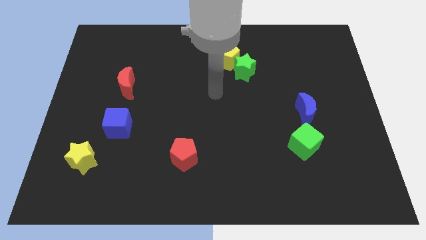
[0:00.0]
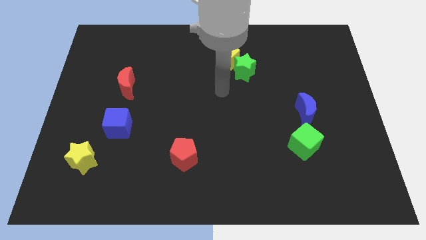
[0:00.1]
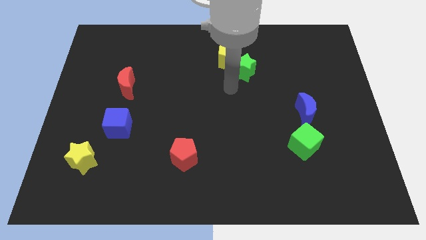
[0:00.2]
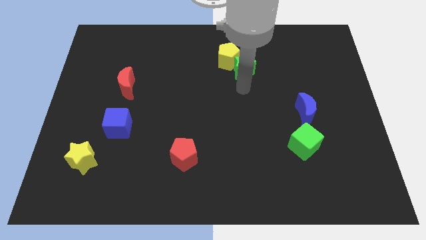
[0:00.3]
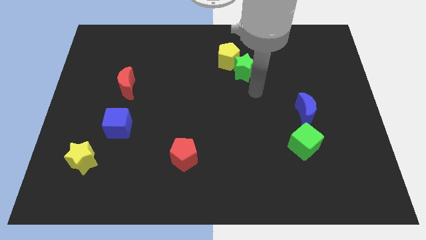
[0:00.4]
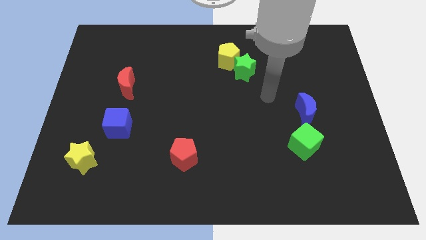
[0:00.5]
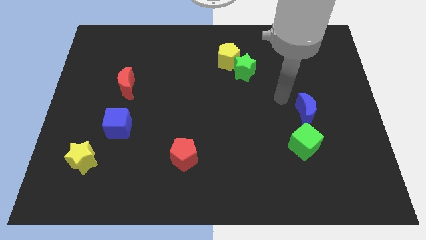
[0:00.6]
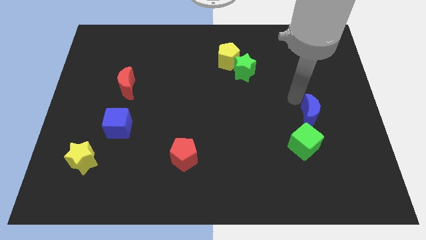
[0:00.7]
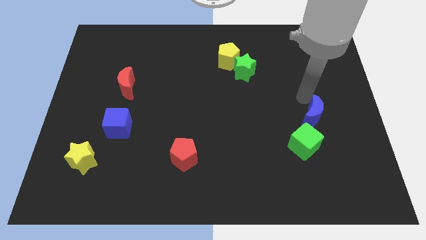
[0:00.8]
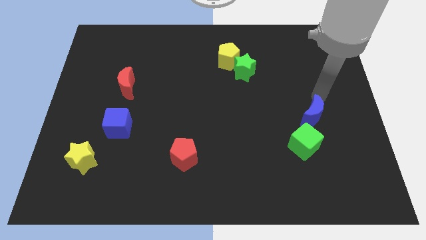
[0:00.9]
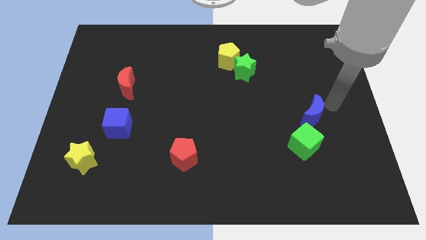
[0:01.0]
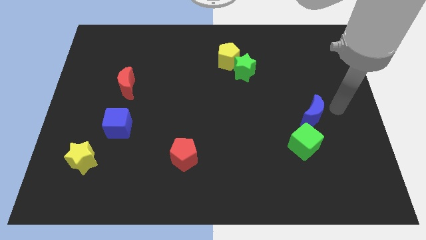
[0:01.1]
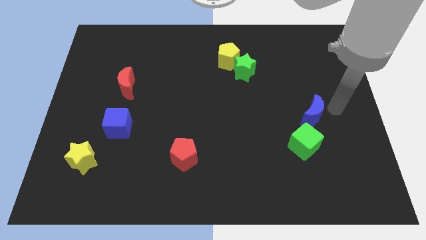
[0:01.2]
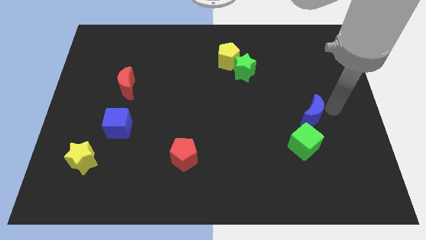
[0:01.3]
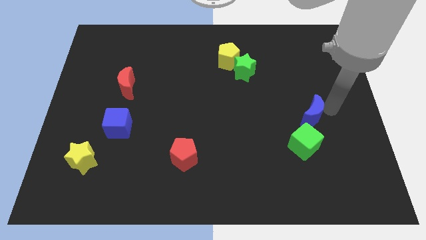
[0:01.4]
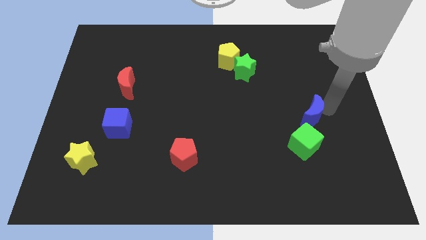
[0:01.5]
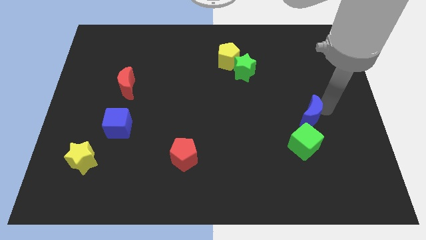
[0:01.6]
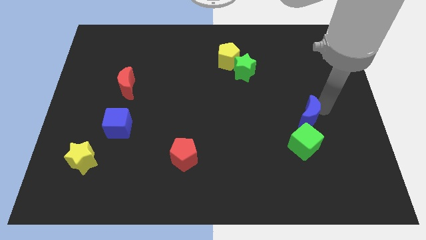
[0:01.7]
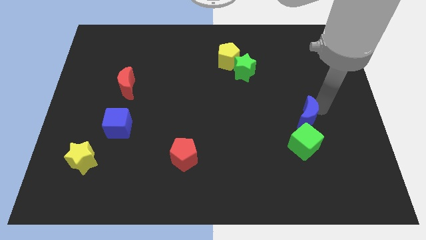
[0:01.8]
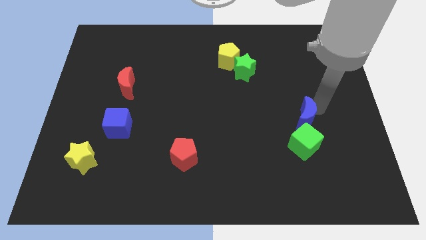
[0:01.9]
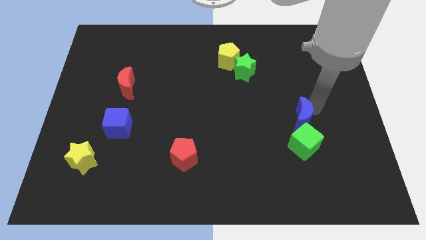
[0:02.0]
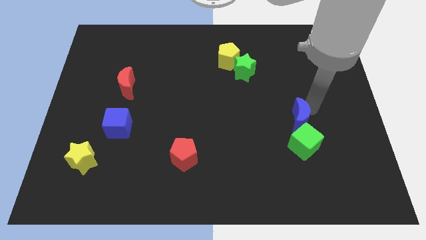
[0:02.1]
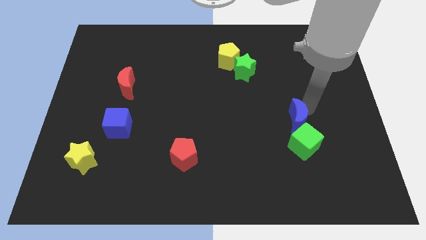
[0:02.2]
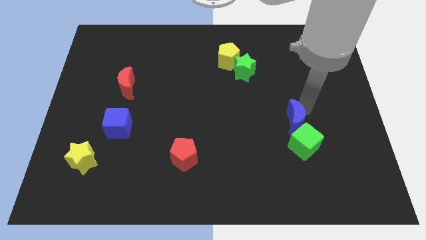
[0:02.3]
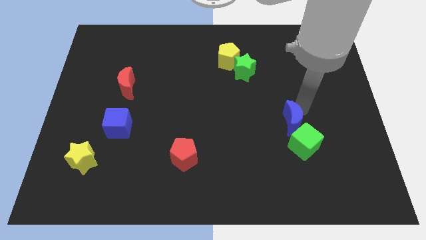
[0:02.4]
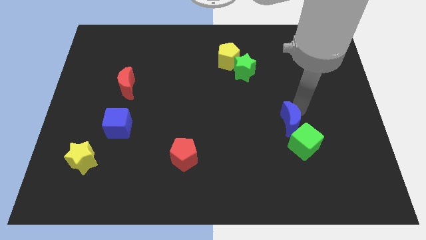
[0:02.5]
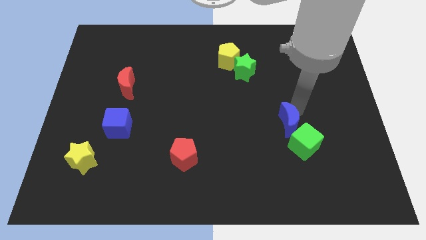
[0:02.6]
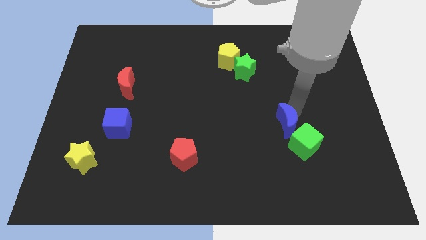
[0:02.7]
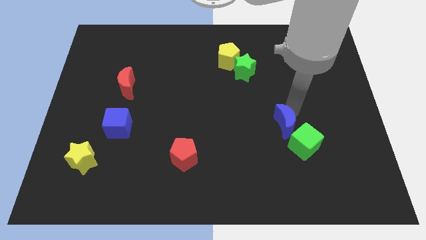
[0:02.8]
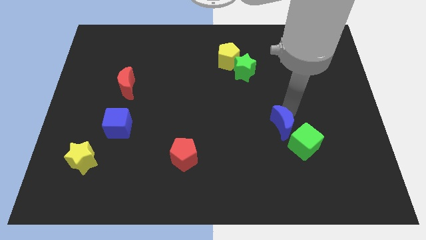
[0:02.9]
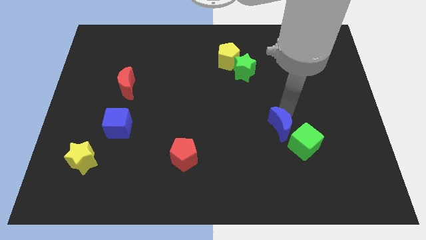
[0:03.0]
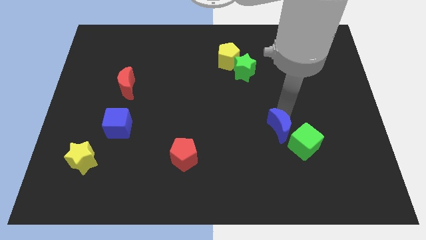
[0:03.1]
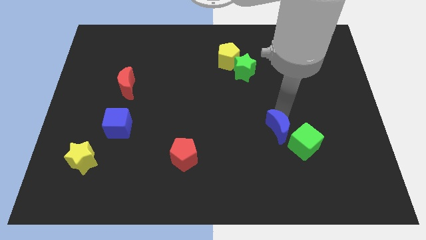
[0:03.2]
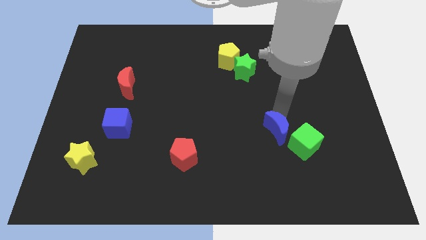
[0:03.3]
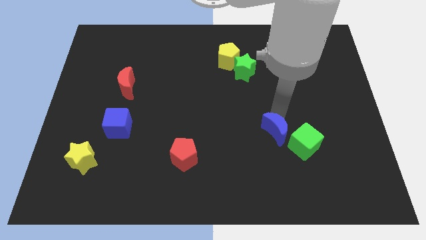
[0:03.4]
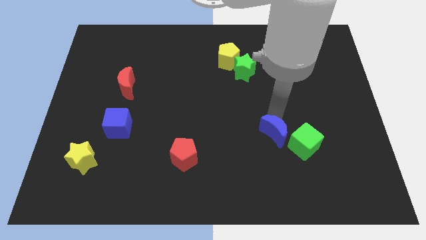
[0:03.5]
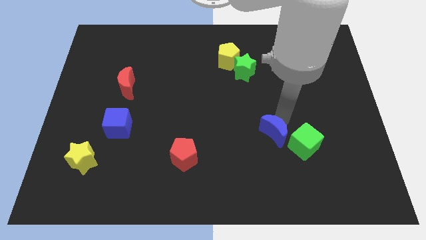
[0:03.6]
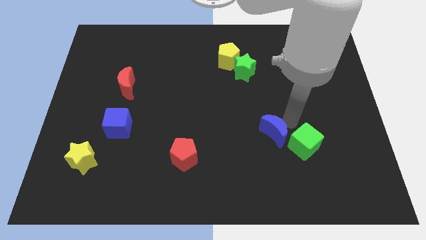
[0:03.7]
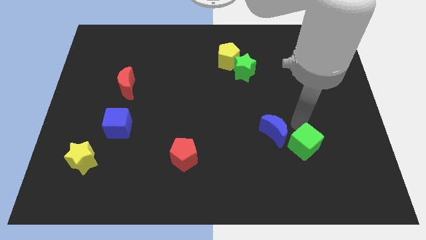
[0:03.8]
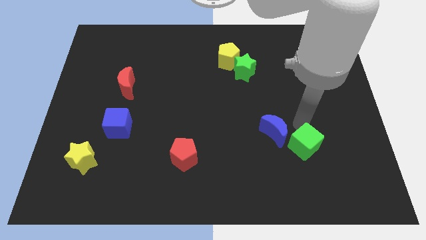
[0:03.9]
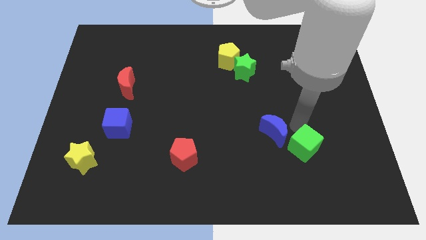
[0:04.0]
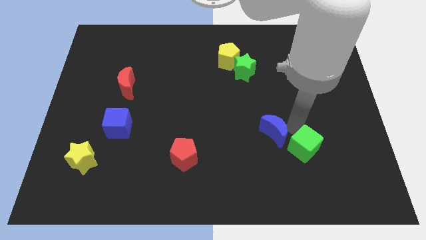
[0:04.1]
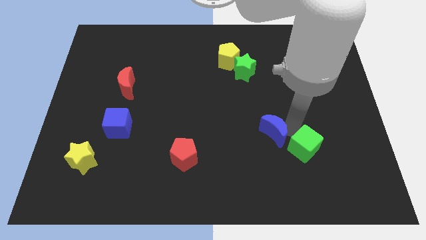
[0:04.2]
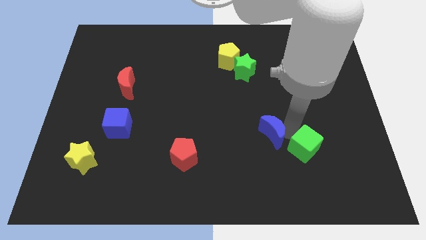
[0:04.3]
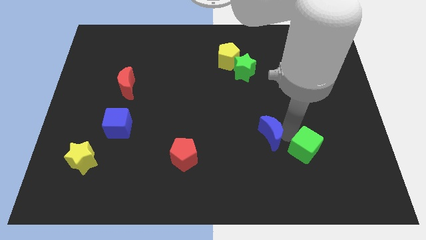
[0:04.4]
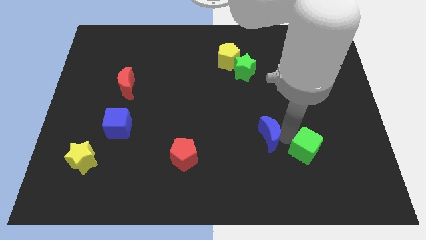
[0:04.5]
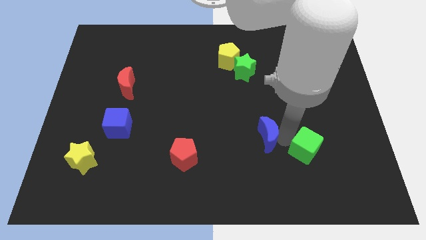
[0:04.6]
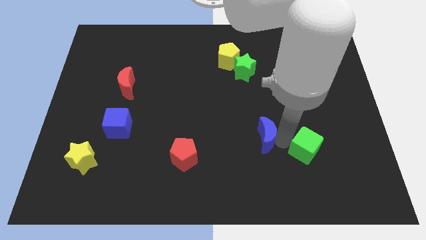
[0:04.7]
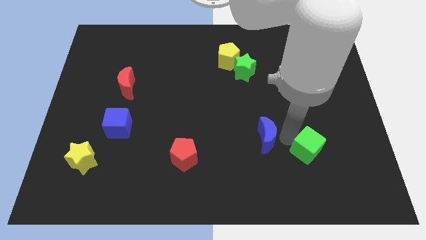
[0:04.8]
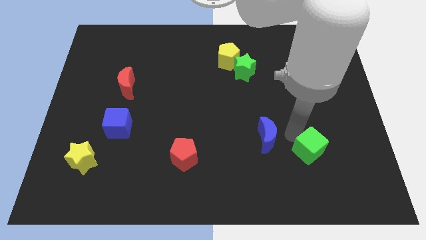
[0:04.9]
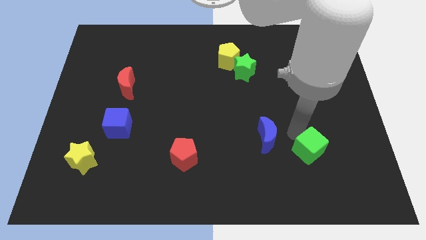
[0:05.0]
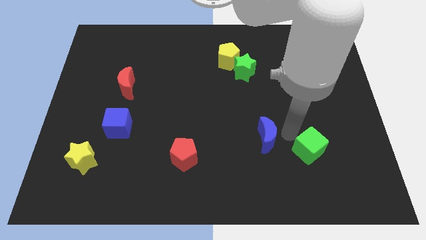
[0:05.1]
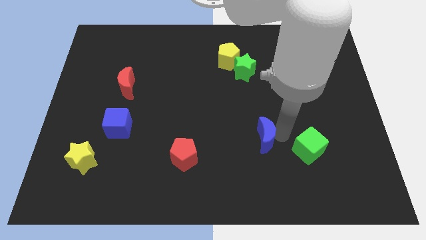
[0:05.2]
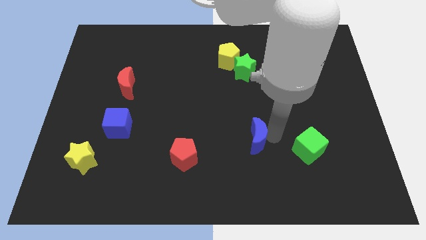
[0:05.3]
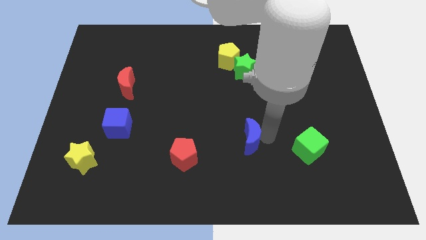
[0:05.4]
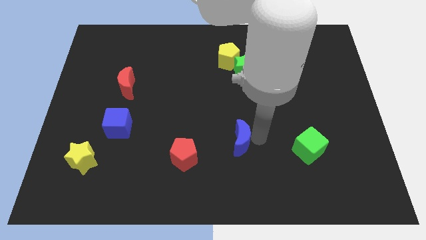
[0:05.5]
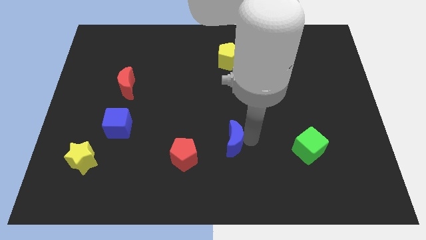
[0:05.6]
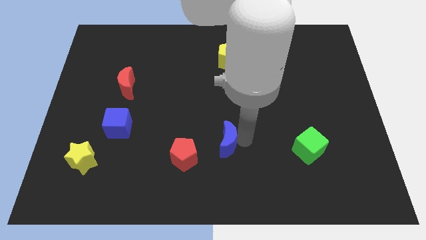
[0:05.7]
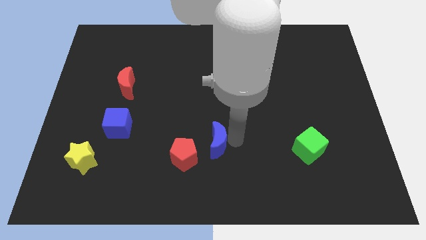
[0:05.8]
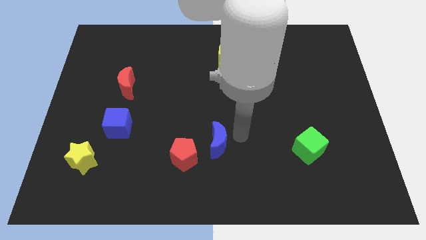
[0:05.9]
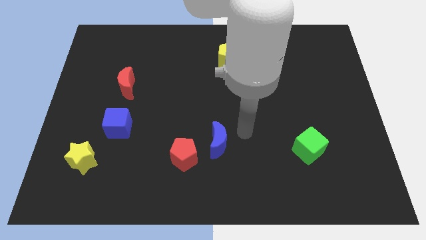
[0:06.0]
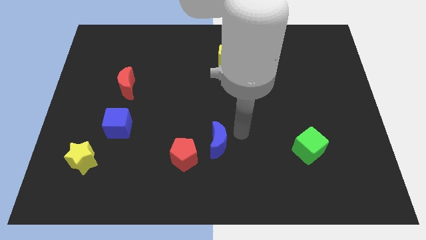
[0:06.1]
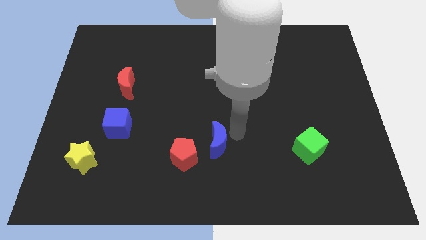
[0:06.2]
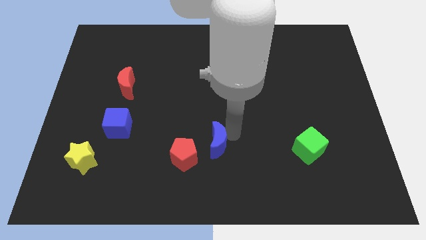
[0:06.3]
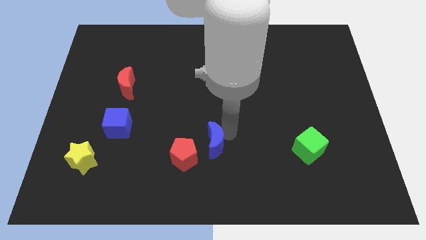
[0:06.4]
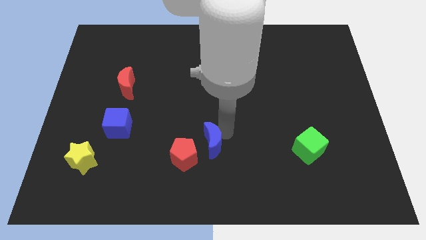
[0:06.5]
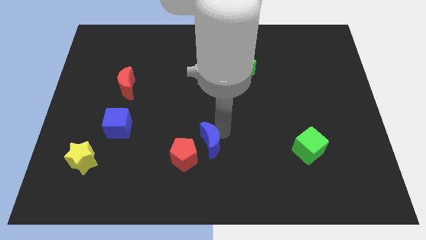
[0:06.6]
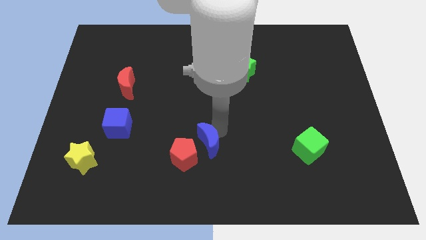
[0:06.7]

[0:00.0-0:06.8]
push the blue moon next to the red pentagon

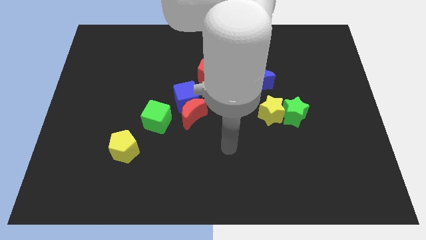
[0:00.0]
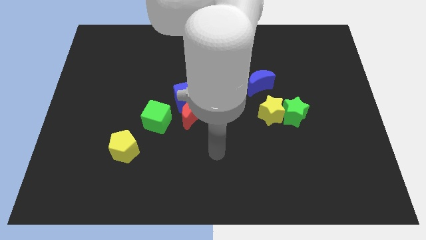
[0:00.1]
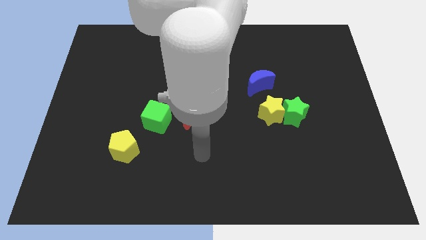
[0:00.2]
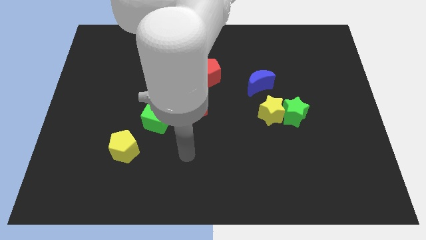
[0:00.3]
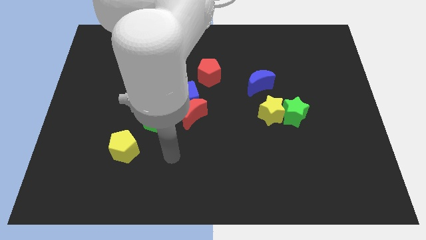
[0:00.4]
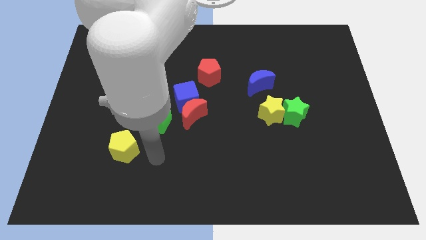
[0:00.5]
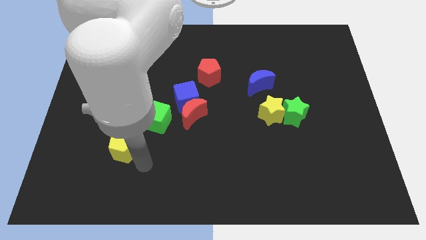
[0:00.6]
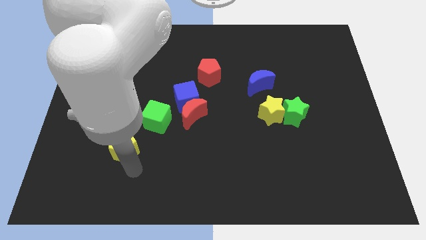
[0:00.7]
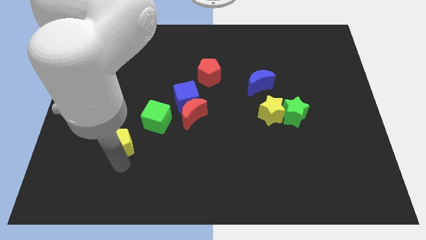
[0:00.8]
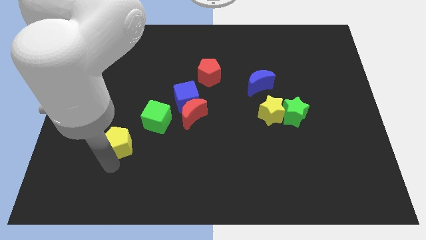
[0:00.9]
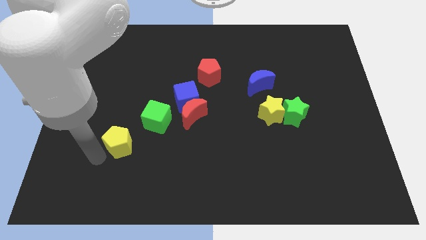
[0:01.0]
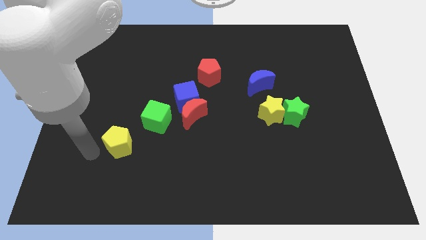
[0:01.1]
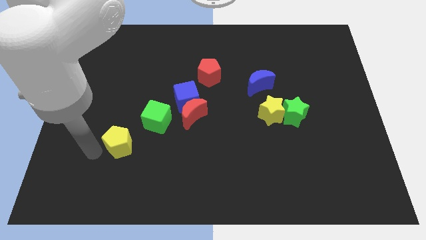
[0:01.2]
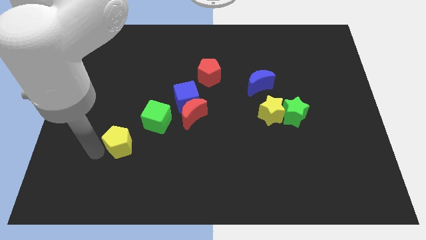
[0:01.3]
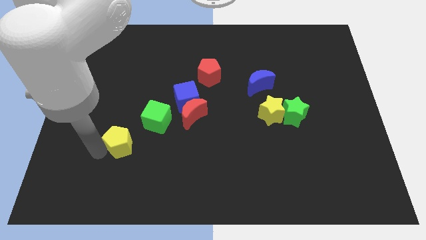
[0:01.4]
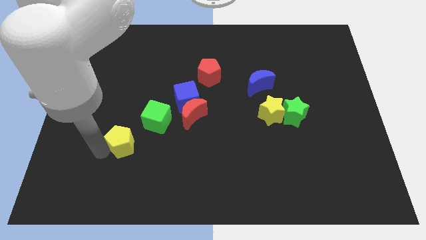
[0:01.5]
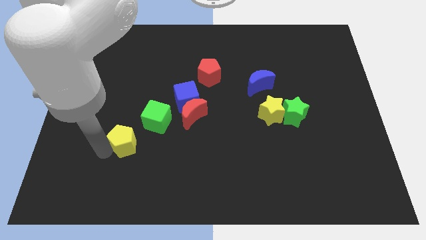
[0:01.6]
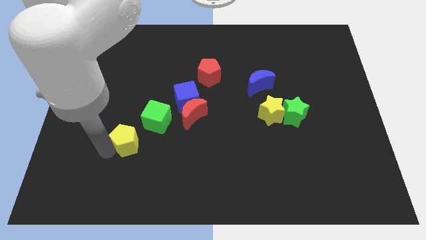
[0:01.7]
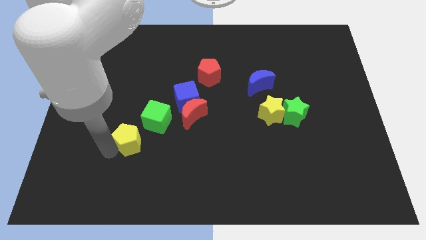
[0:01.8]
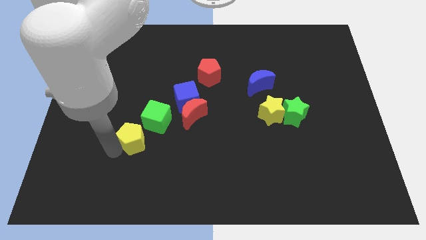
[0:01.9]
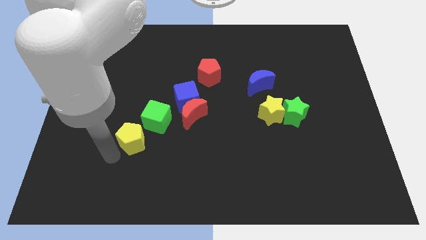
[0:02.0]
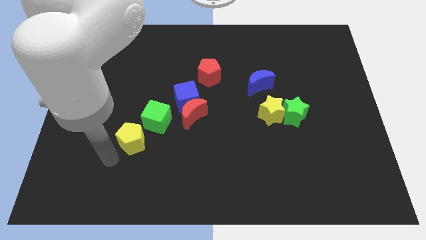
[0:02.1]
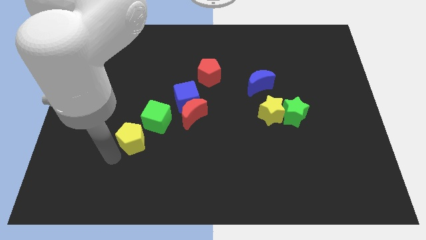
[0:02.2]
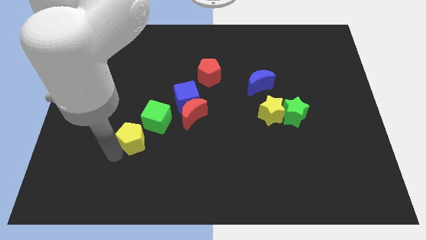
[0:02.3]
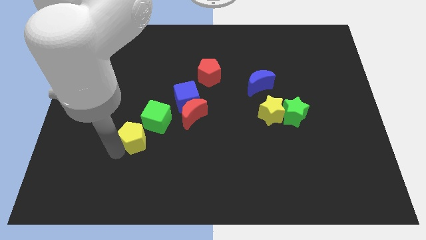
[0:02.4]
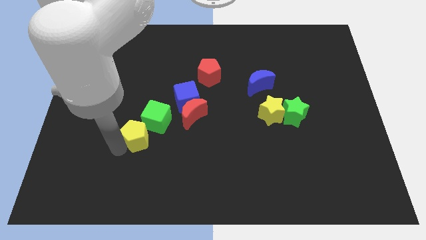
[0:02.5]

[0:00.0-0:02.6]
push the yellow pentagon towards the green cube
